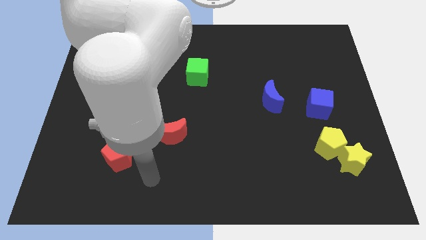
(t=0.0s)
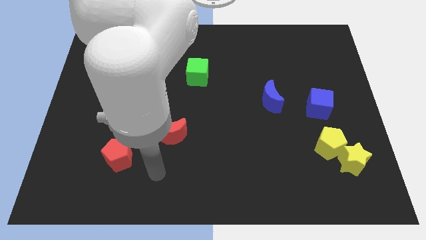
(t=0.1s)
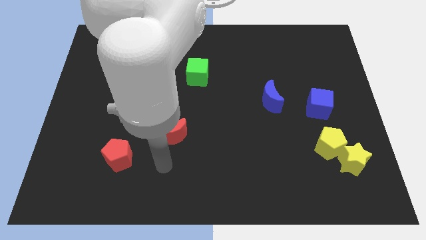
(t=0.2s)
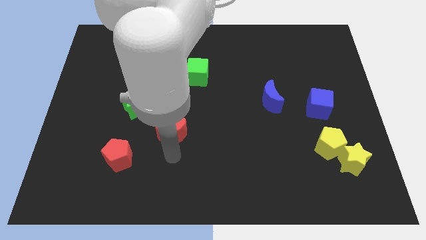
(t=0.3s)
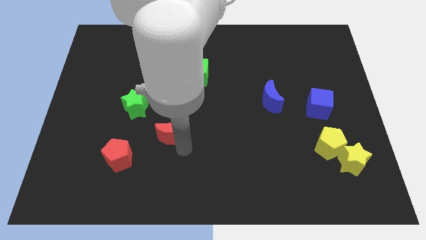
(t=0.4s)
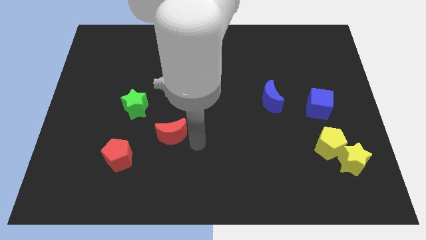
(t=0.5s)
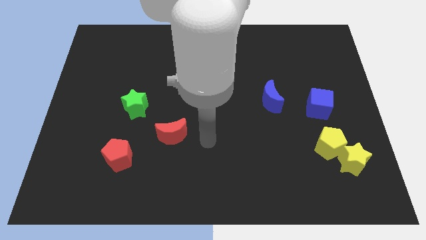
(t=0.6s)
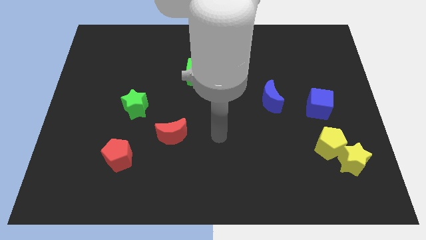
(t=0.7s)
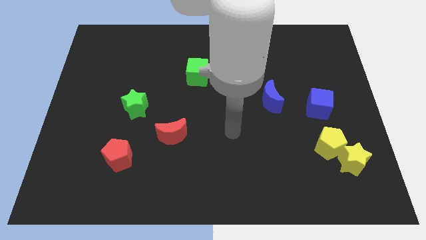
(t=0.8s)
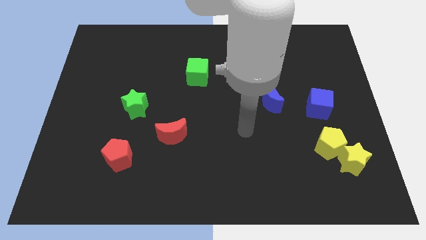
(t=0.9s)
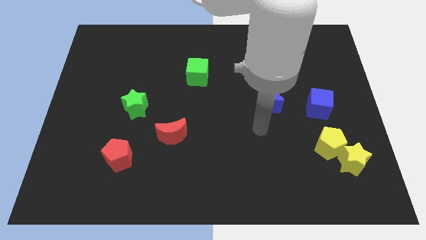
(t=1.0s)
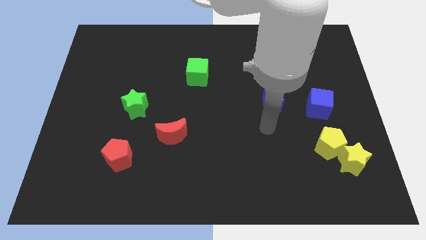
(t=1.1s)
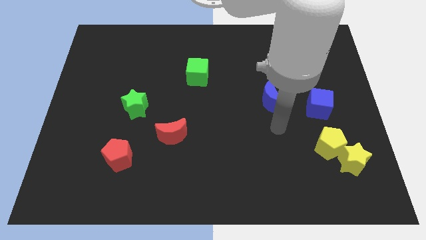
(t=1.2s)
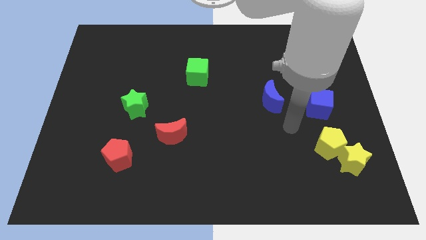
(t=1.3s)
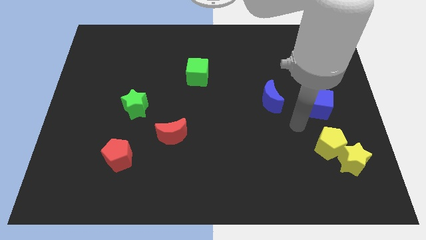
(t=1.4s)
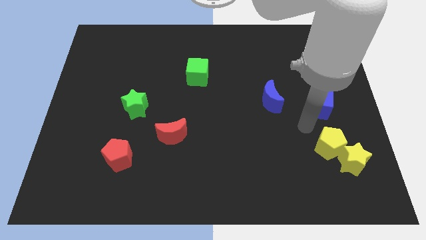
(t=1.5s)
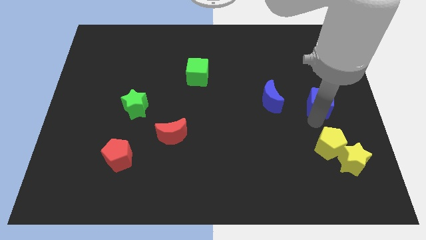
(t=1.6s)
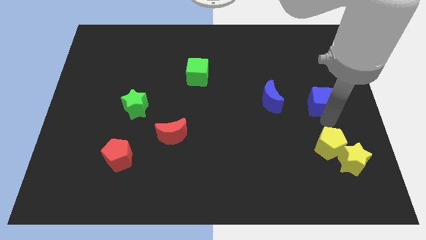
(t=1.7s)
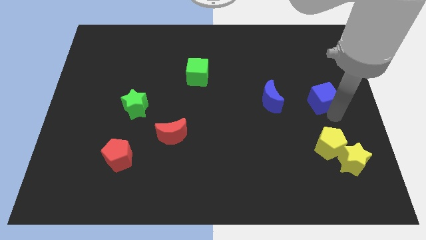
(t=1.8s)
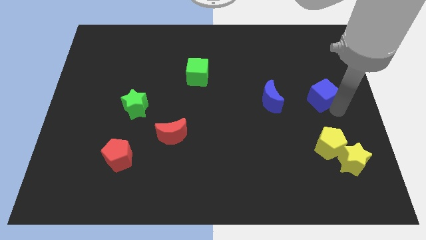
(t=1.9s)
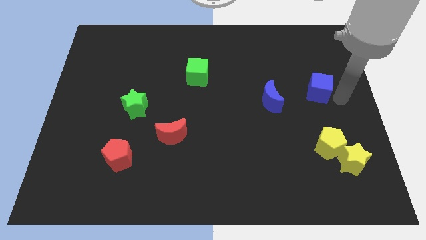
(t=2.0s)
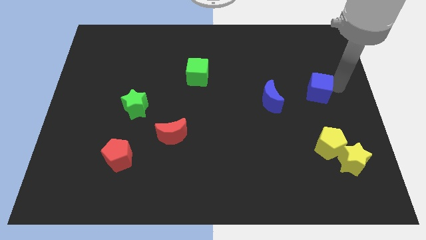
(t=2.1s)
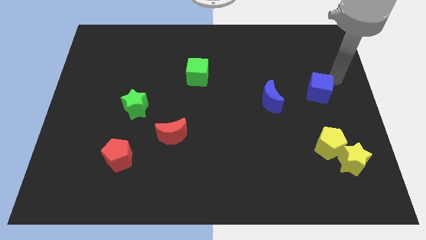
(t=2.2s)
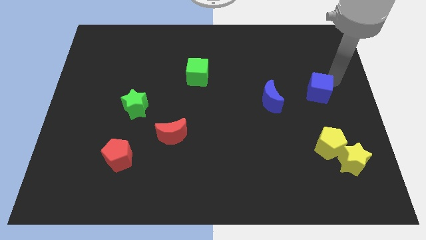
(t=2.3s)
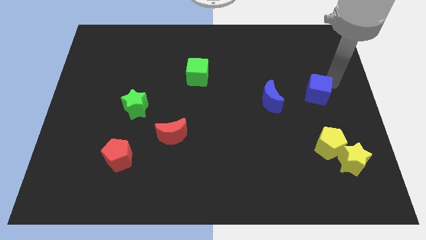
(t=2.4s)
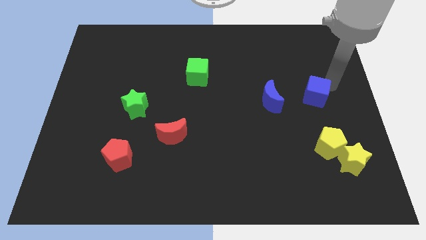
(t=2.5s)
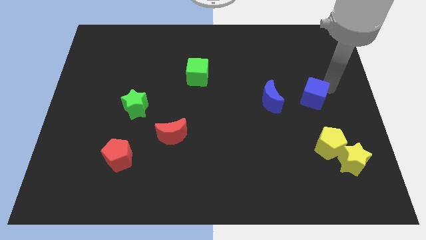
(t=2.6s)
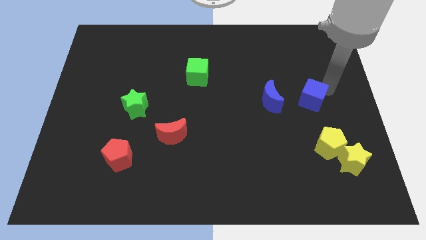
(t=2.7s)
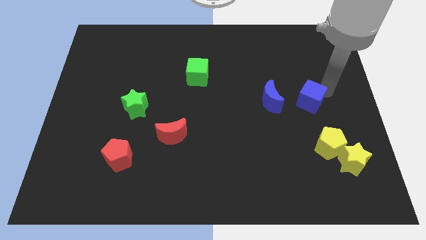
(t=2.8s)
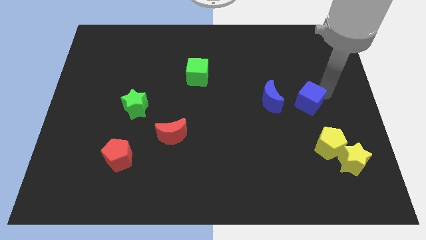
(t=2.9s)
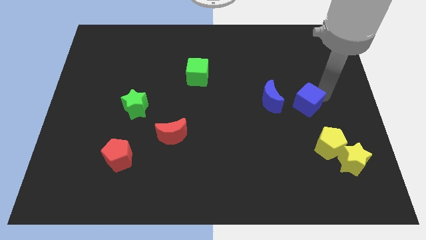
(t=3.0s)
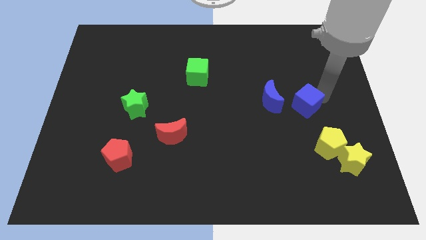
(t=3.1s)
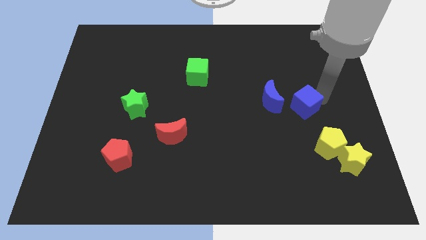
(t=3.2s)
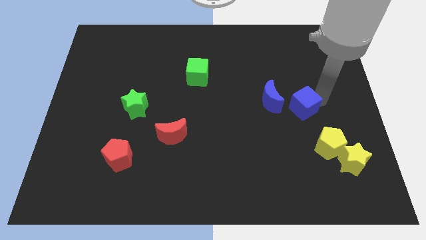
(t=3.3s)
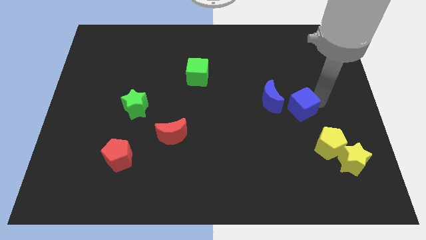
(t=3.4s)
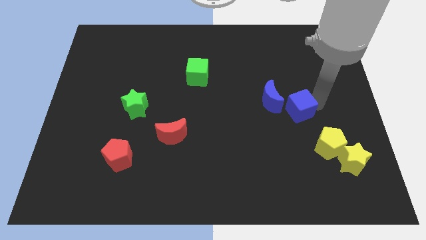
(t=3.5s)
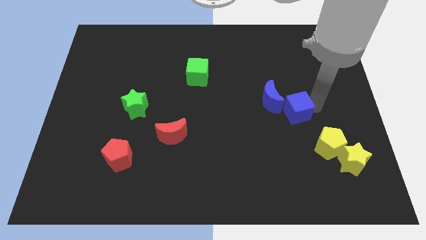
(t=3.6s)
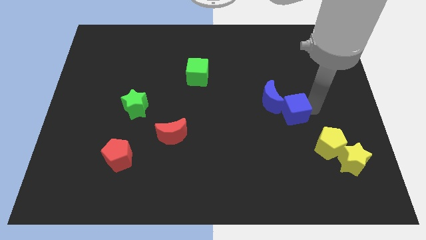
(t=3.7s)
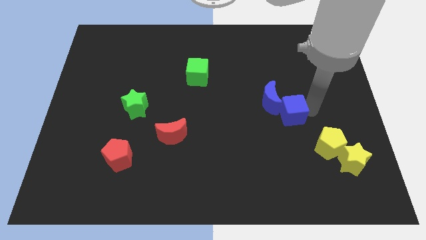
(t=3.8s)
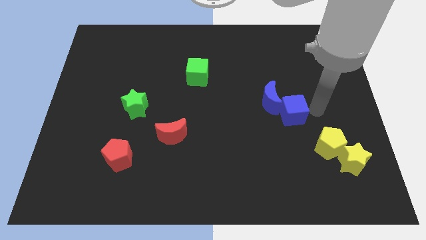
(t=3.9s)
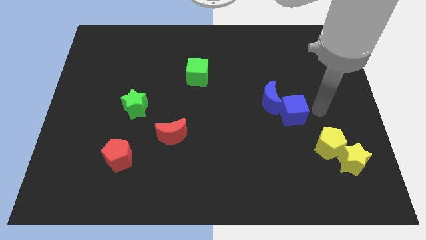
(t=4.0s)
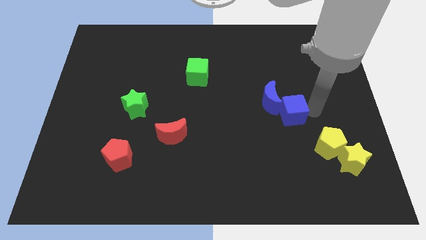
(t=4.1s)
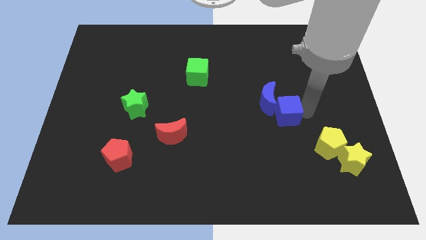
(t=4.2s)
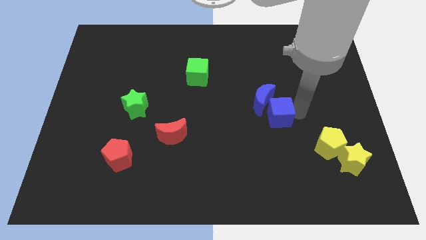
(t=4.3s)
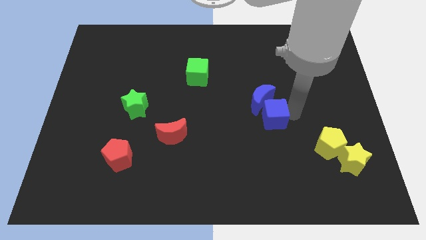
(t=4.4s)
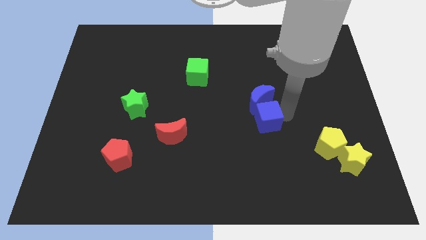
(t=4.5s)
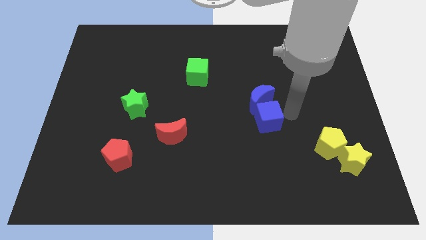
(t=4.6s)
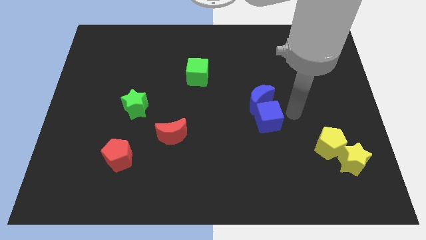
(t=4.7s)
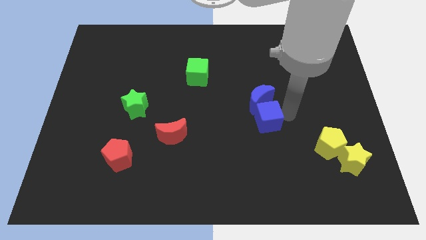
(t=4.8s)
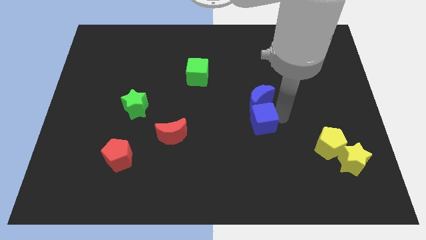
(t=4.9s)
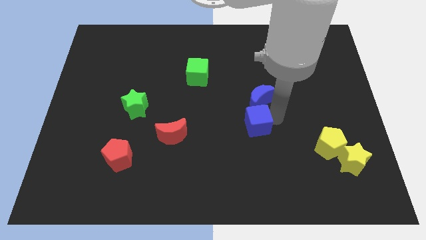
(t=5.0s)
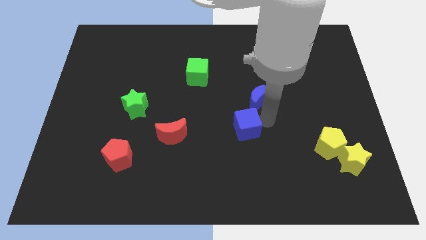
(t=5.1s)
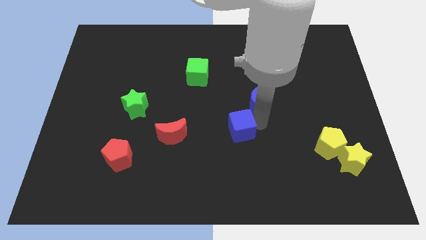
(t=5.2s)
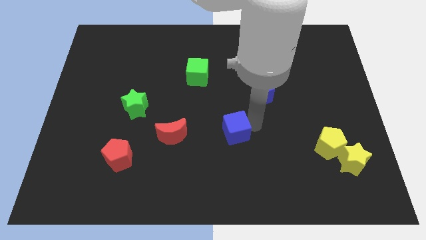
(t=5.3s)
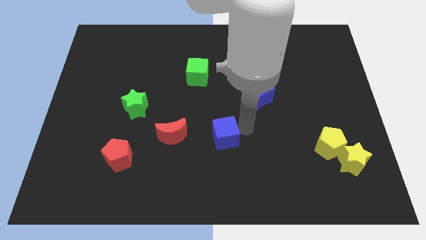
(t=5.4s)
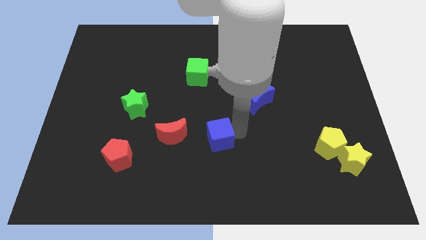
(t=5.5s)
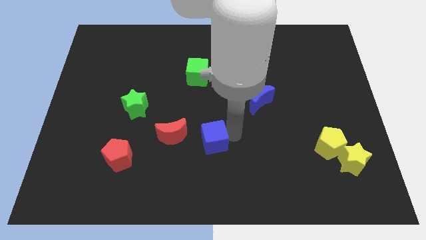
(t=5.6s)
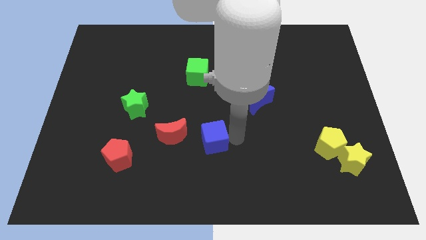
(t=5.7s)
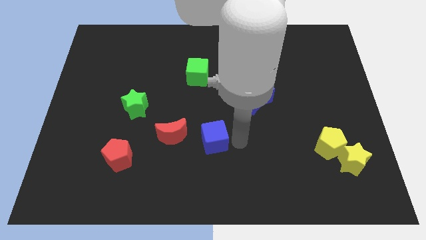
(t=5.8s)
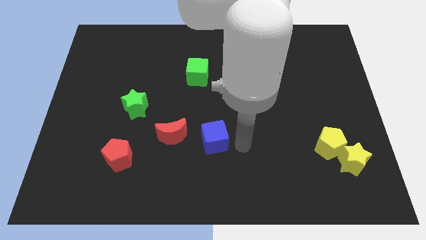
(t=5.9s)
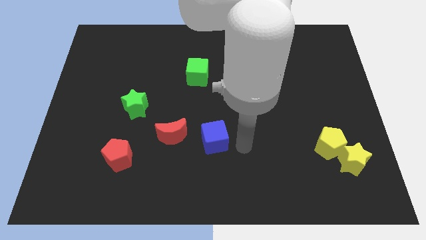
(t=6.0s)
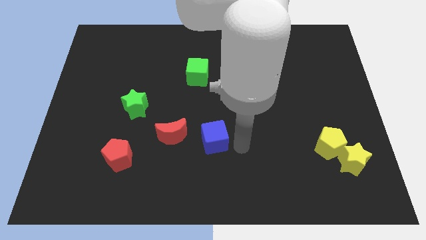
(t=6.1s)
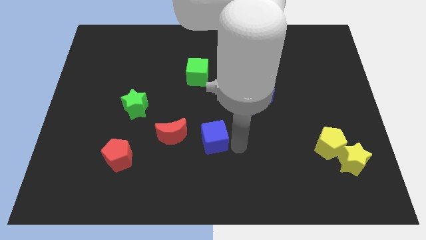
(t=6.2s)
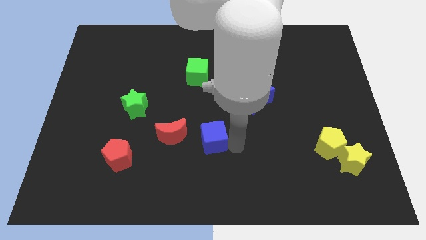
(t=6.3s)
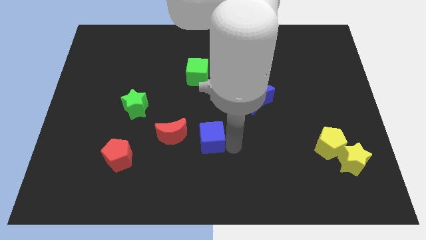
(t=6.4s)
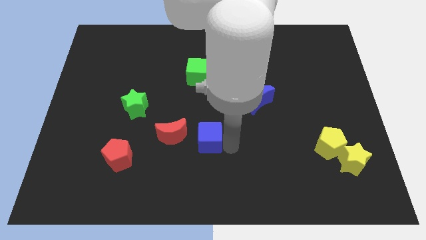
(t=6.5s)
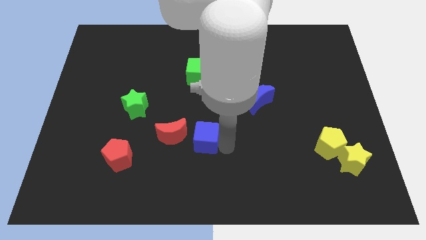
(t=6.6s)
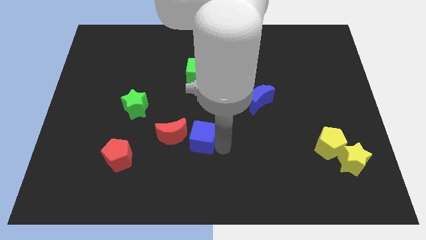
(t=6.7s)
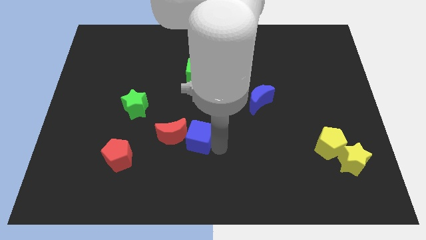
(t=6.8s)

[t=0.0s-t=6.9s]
push the blue cube towards the red moon

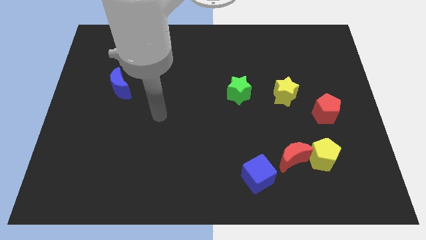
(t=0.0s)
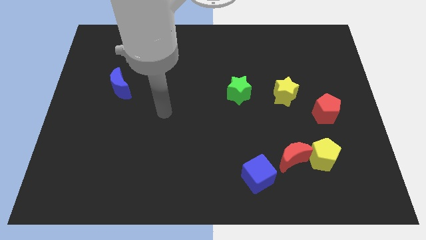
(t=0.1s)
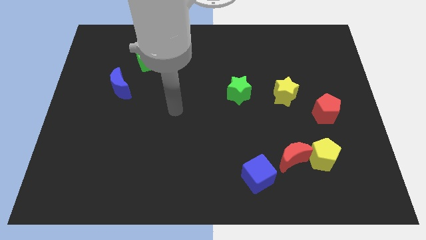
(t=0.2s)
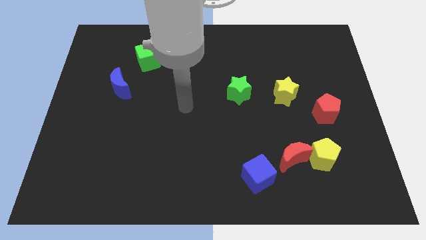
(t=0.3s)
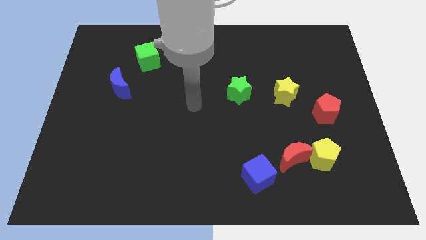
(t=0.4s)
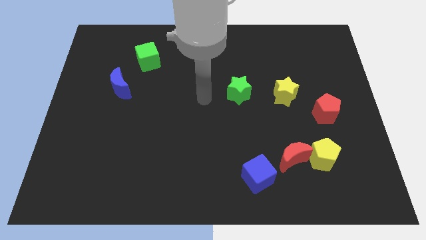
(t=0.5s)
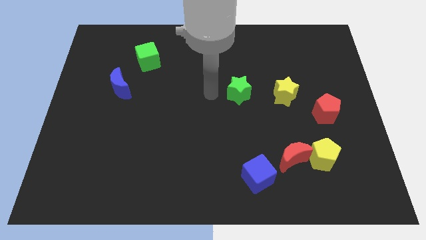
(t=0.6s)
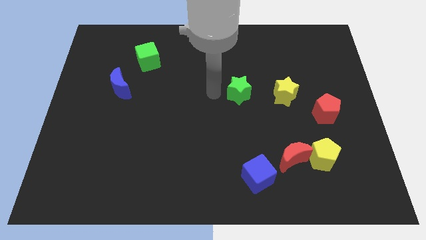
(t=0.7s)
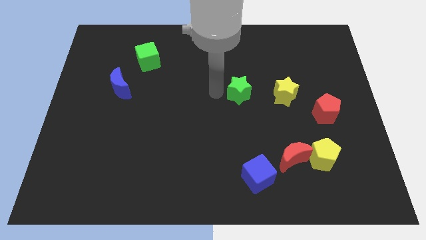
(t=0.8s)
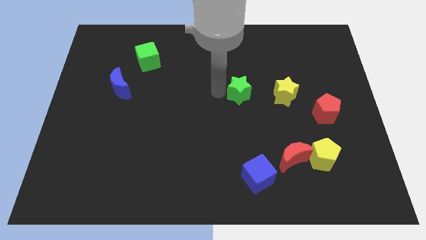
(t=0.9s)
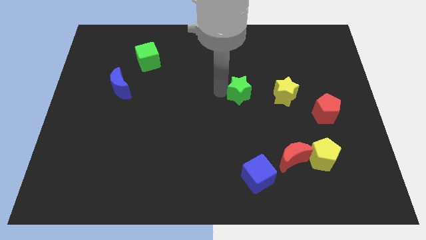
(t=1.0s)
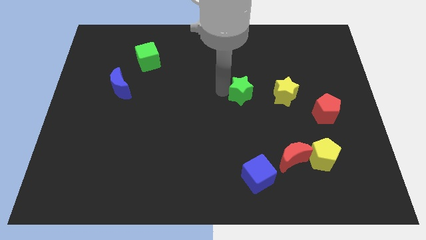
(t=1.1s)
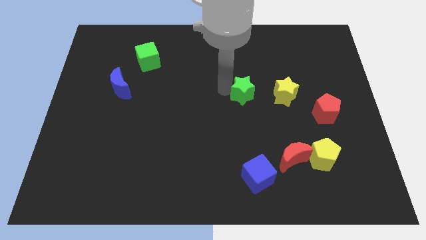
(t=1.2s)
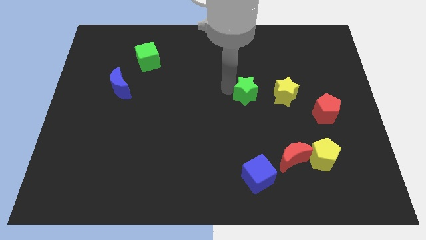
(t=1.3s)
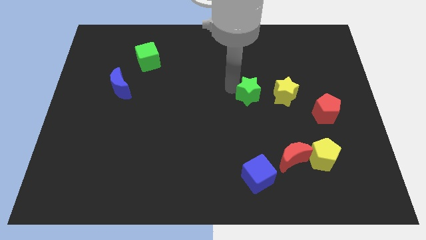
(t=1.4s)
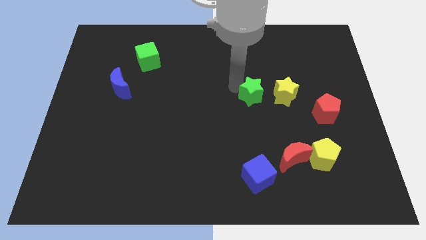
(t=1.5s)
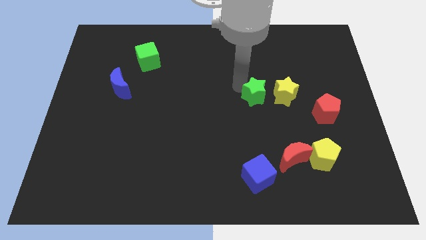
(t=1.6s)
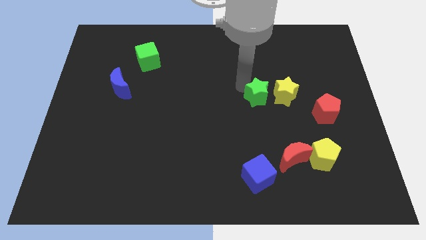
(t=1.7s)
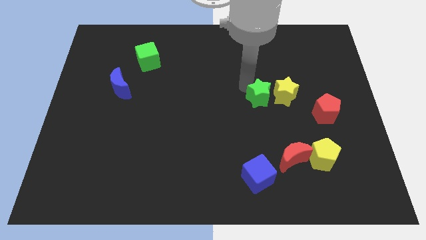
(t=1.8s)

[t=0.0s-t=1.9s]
slide the green star to the yellow star
